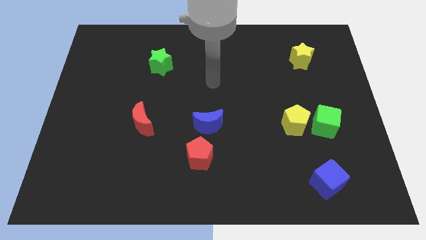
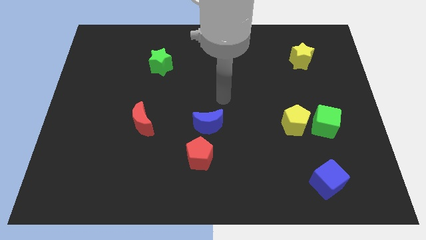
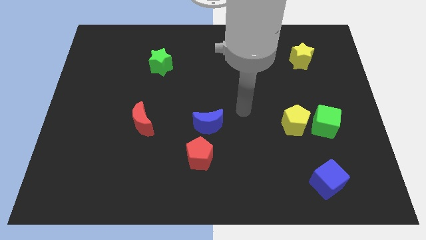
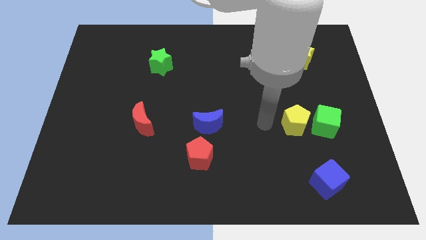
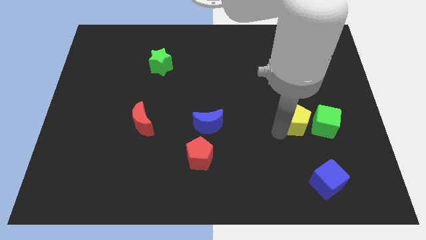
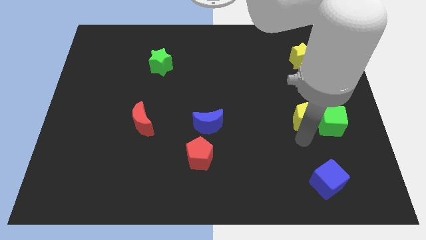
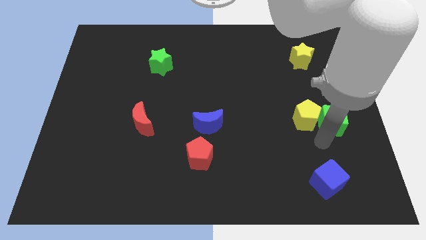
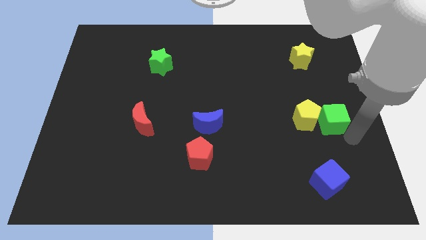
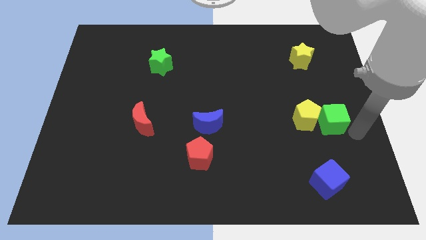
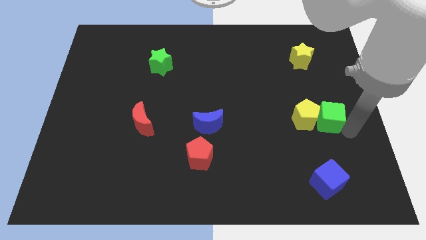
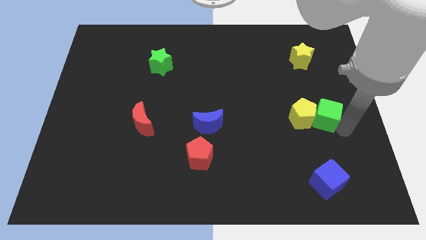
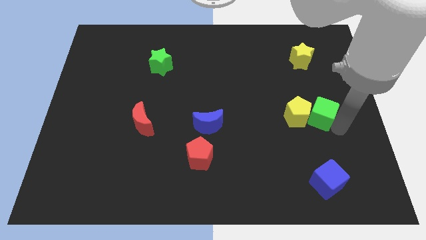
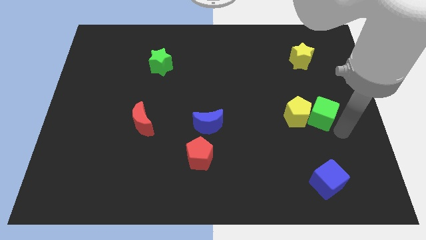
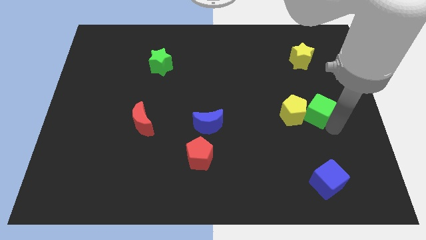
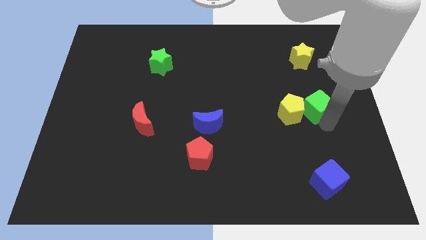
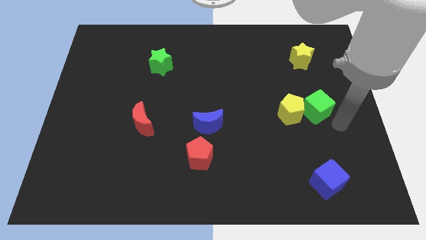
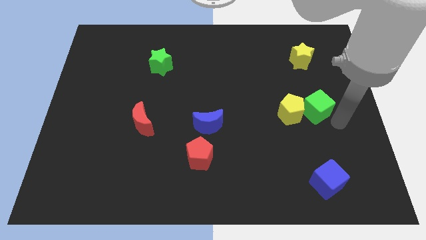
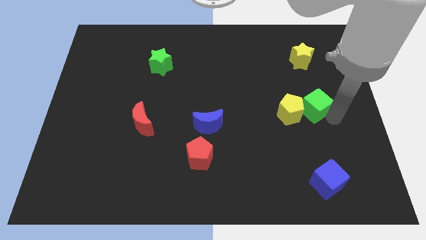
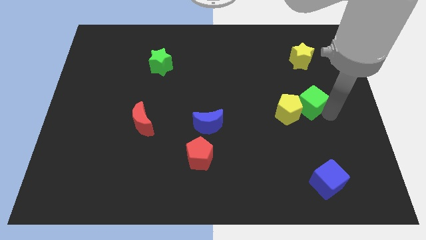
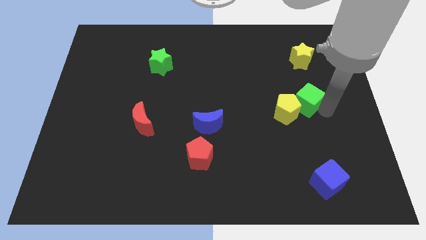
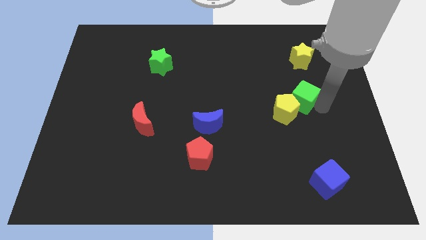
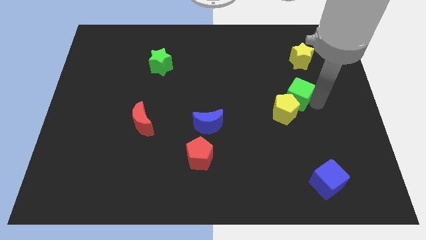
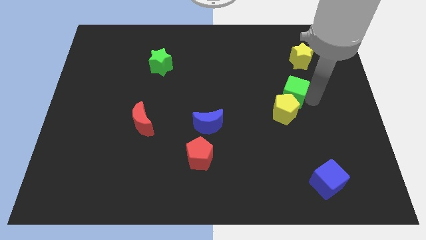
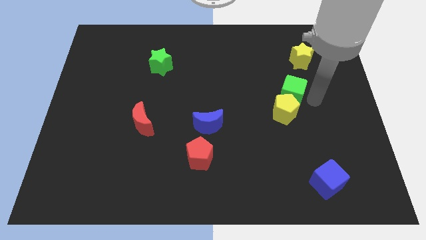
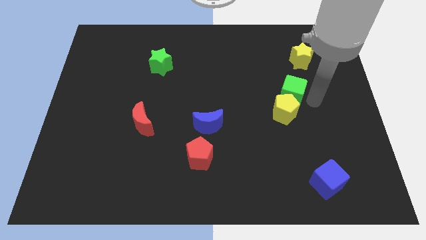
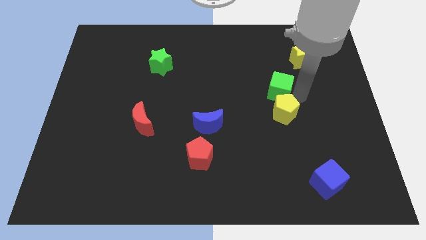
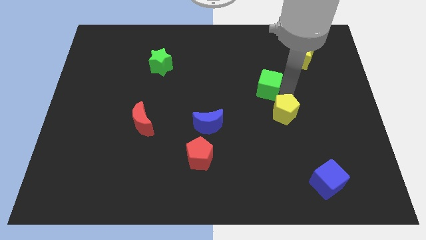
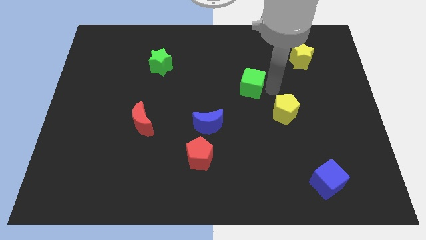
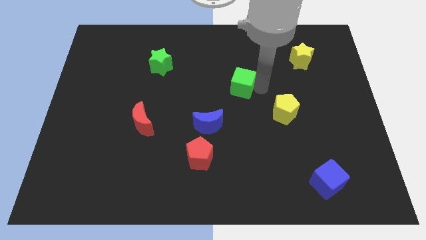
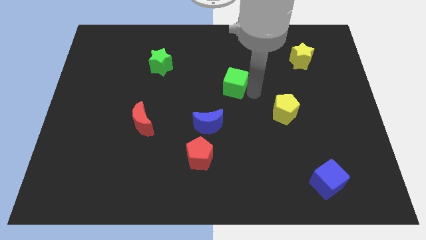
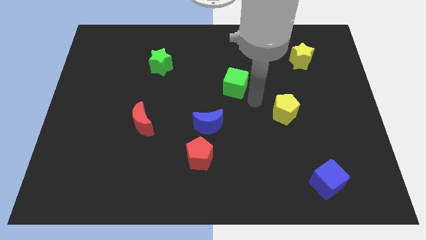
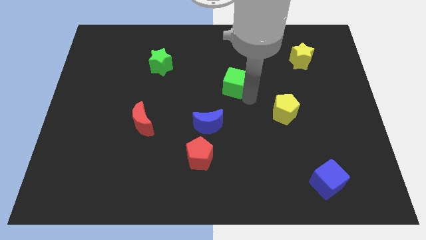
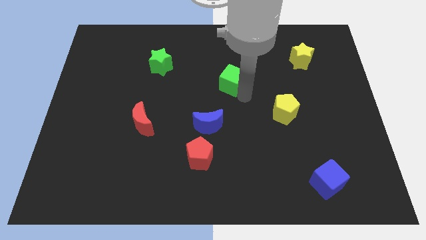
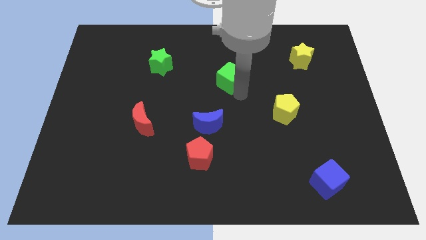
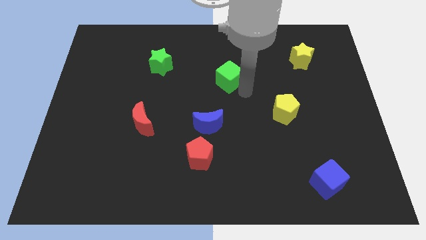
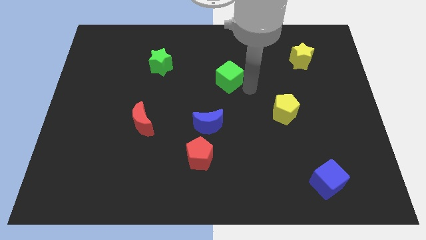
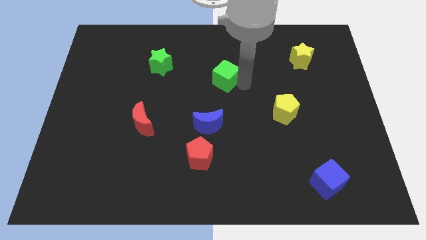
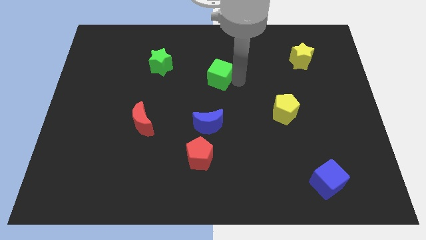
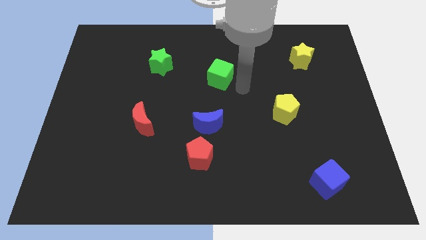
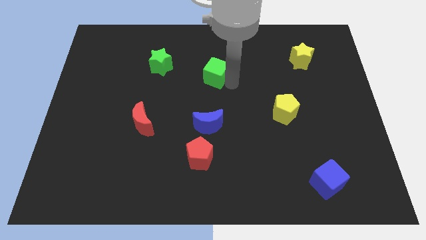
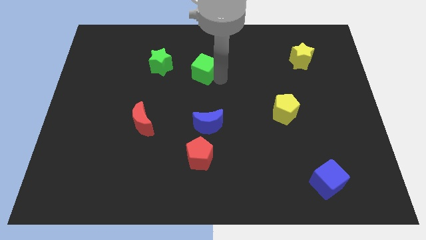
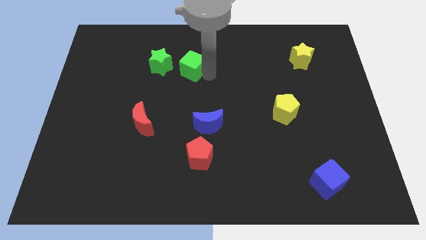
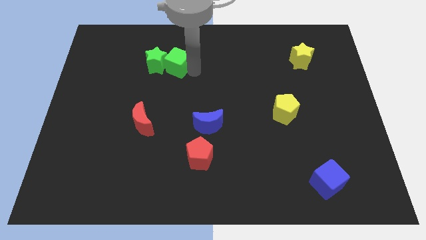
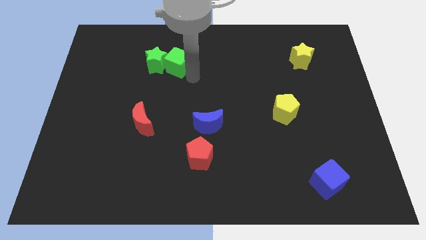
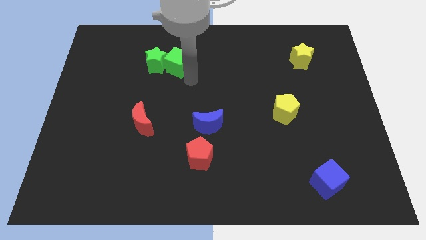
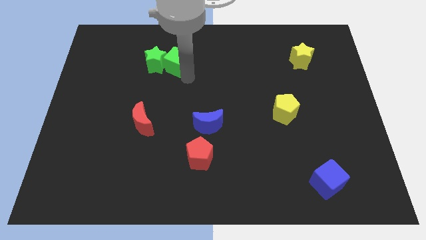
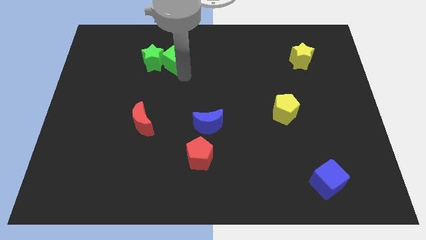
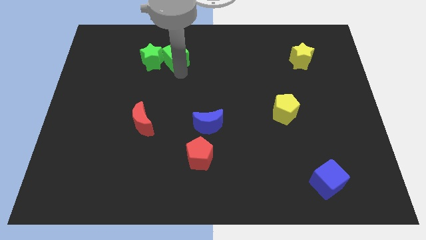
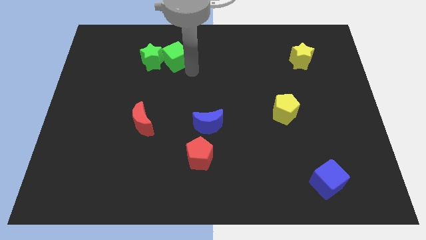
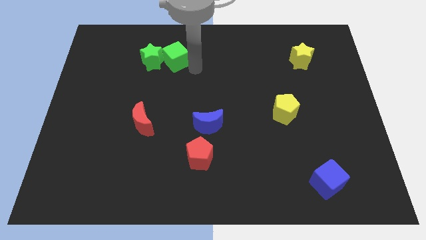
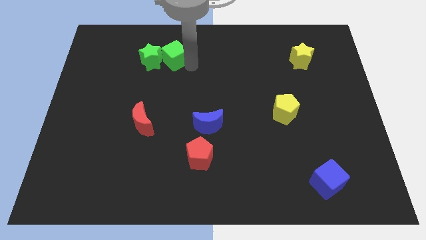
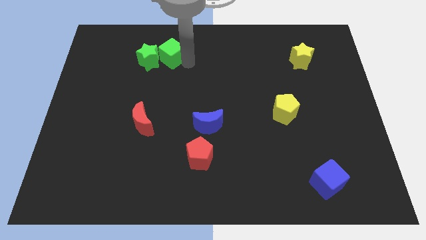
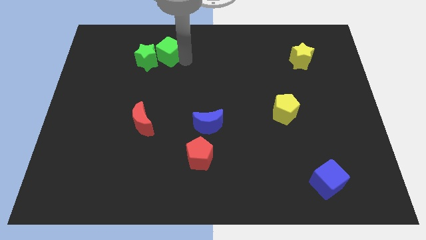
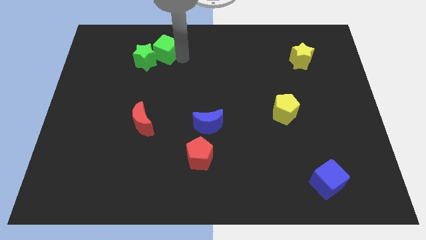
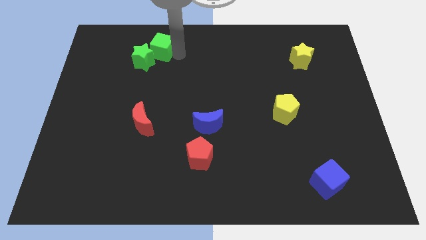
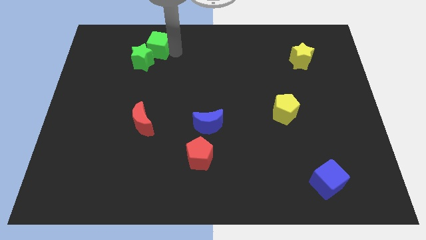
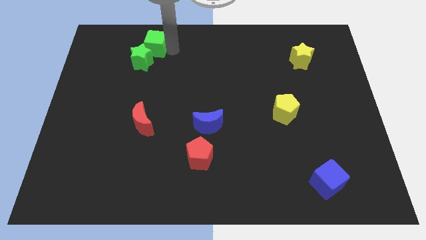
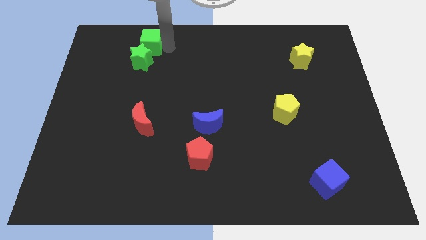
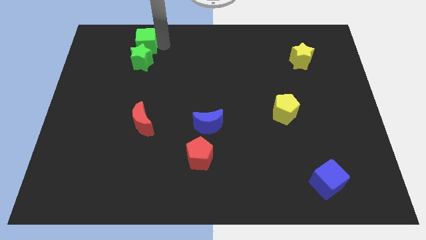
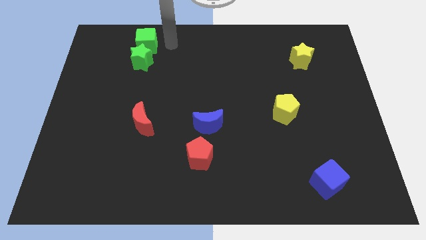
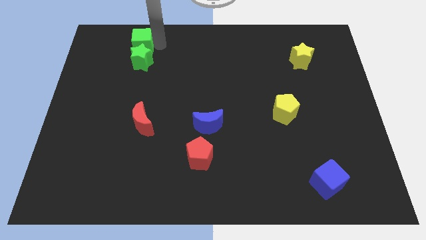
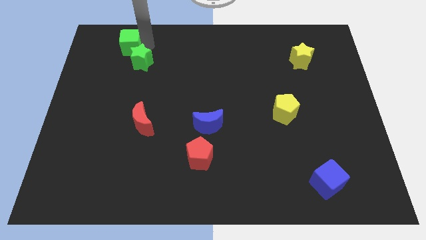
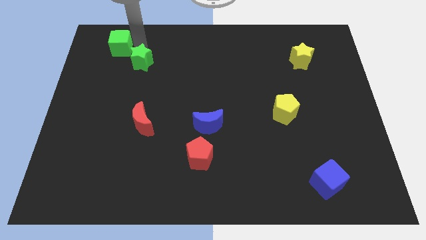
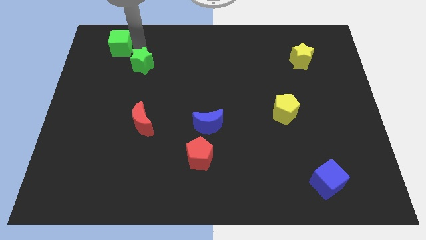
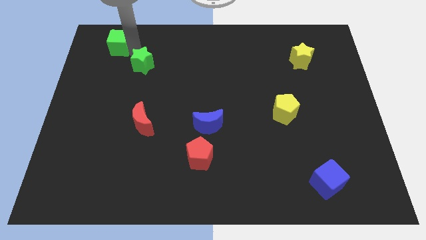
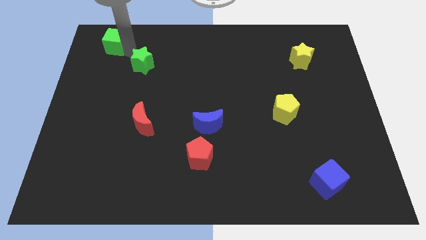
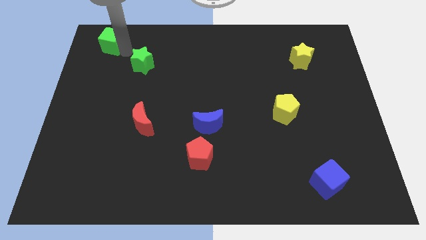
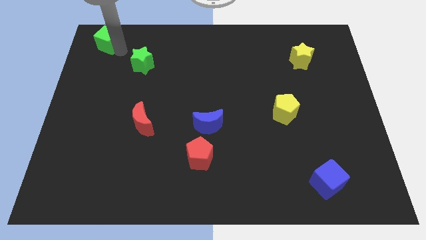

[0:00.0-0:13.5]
push the green cube to the top left
